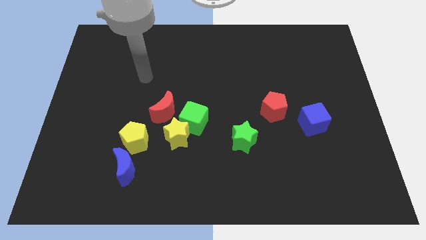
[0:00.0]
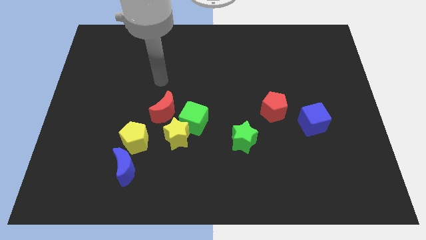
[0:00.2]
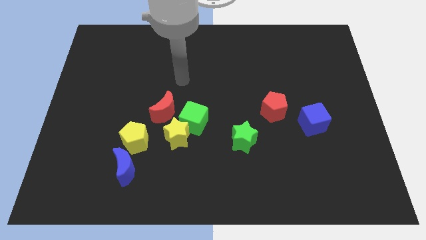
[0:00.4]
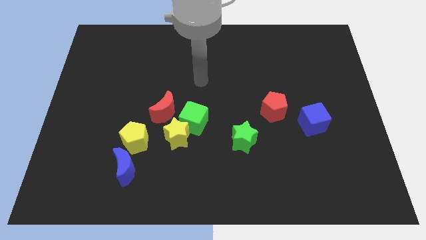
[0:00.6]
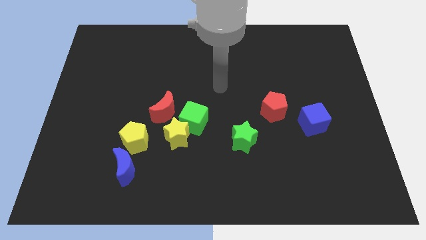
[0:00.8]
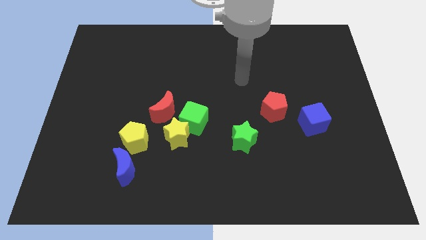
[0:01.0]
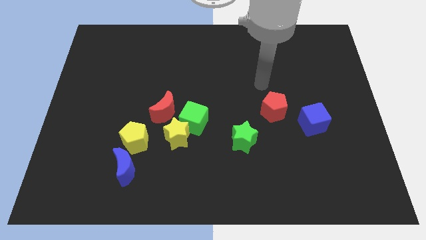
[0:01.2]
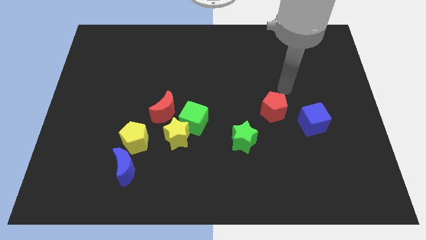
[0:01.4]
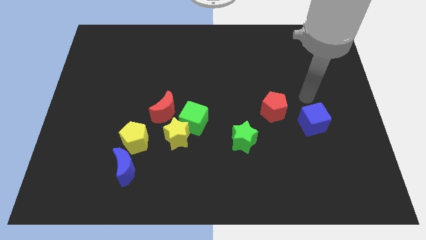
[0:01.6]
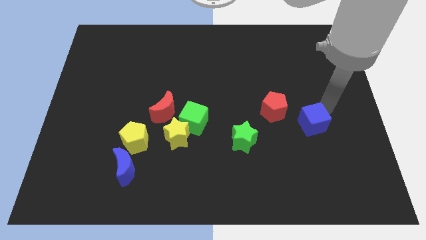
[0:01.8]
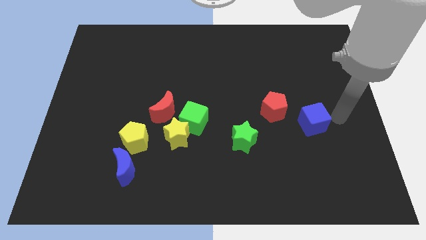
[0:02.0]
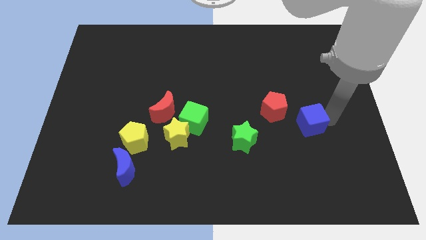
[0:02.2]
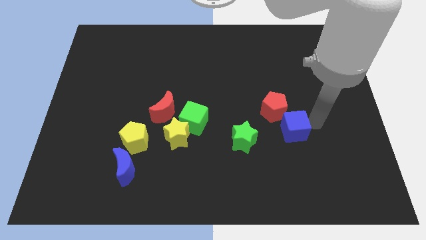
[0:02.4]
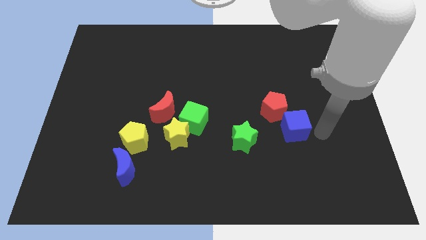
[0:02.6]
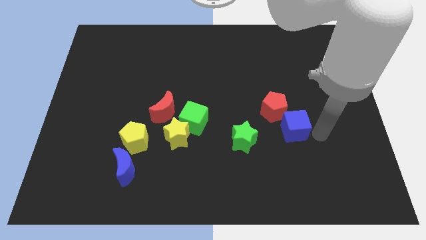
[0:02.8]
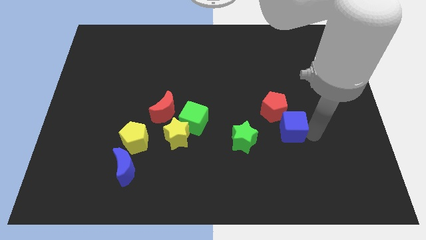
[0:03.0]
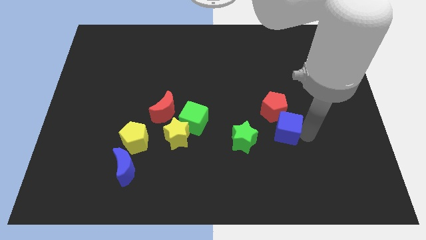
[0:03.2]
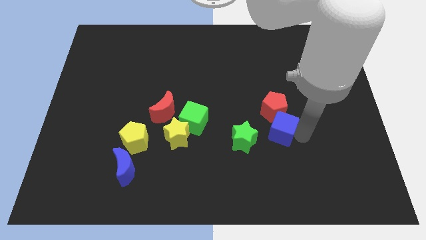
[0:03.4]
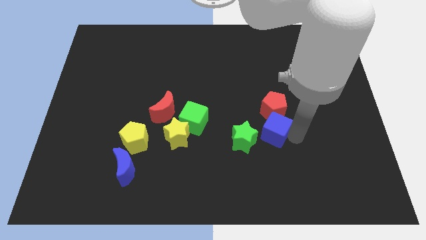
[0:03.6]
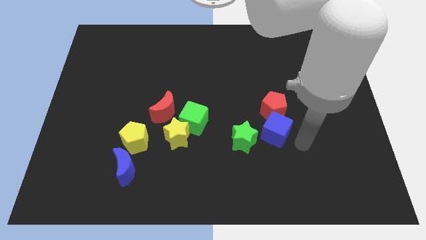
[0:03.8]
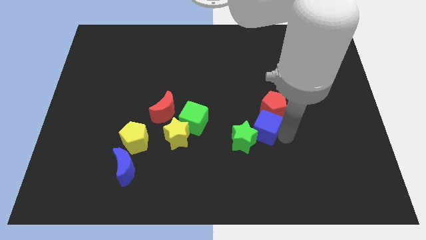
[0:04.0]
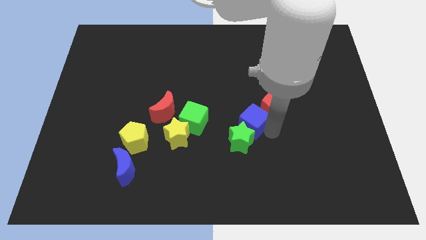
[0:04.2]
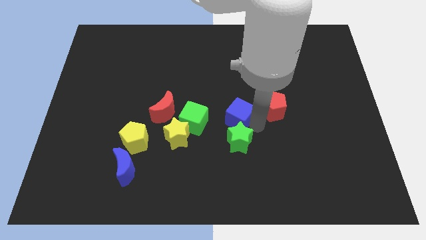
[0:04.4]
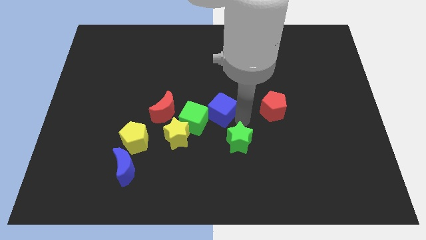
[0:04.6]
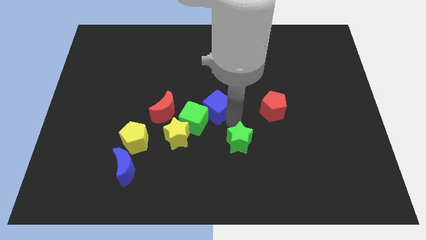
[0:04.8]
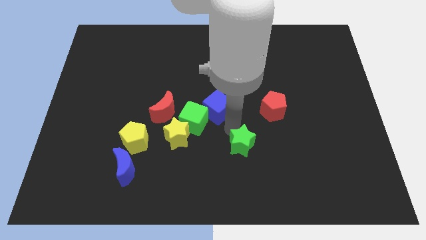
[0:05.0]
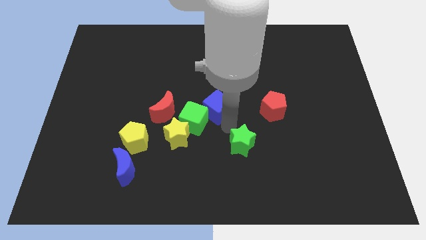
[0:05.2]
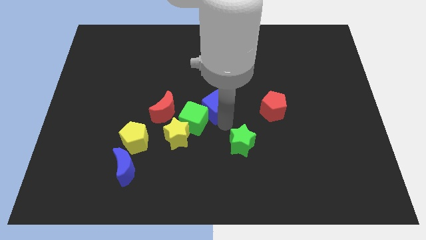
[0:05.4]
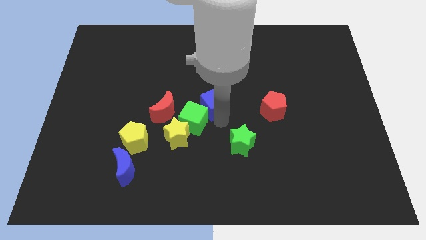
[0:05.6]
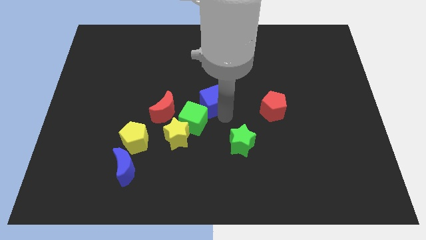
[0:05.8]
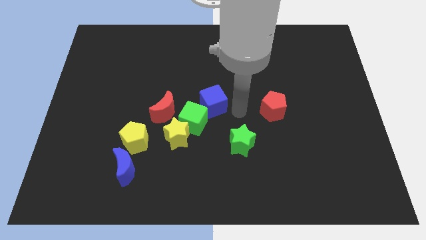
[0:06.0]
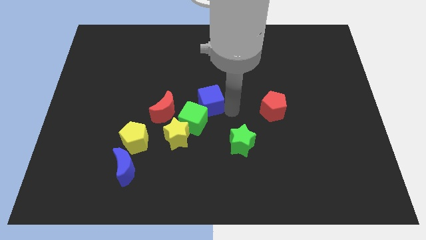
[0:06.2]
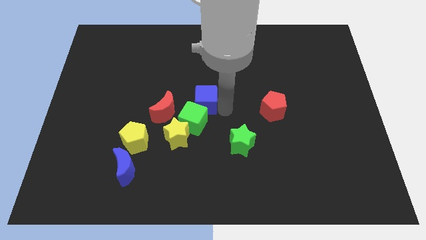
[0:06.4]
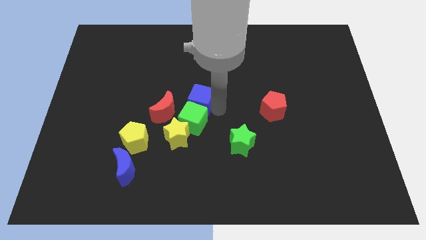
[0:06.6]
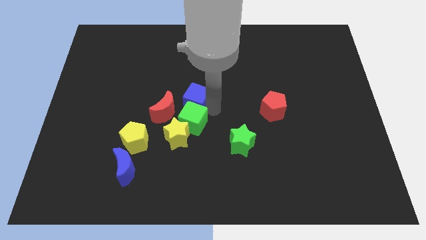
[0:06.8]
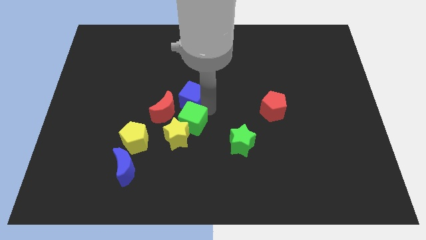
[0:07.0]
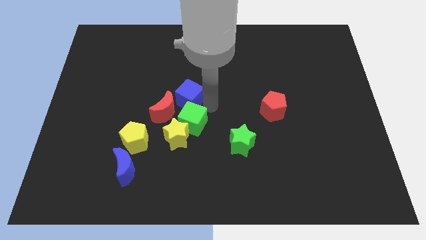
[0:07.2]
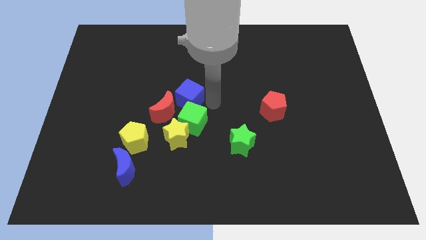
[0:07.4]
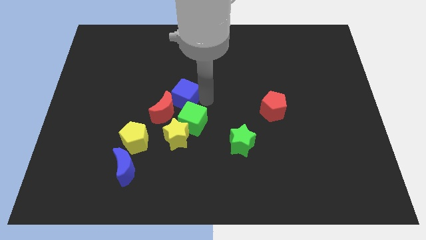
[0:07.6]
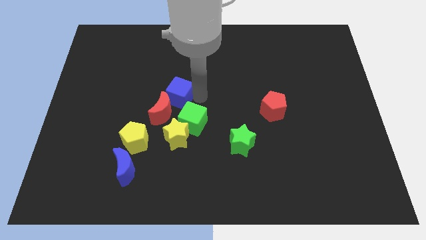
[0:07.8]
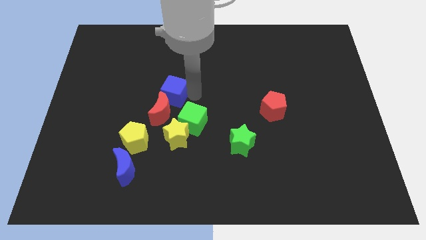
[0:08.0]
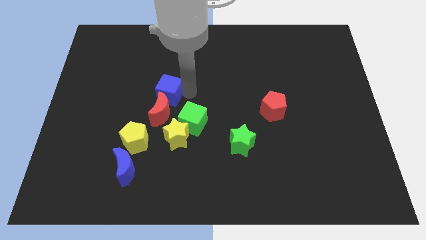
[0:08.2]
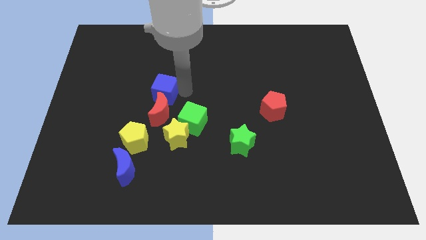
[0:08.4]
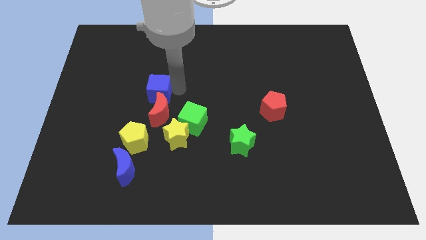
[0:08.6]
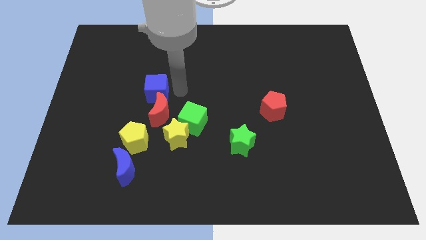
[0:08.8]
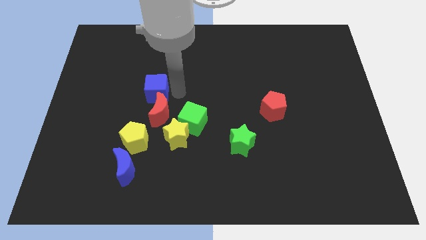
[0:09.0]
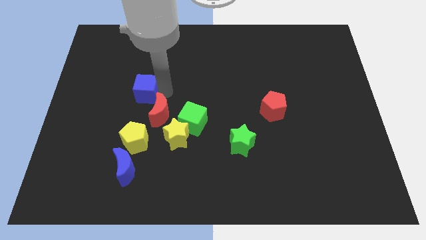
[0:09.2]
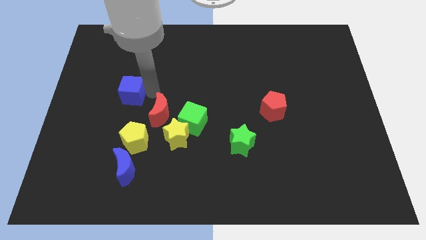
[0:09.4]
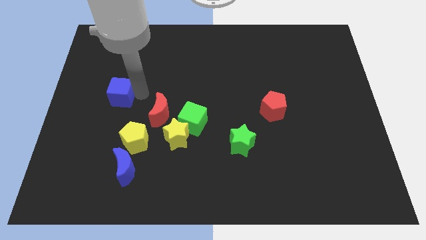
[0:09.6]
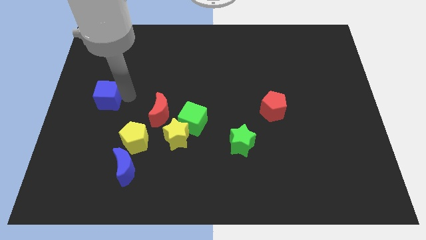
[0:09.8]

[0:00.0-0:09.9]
put the blue cube to the left side

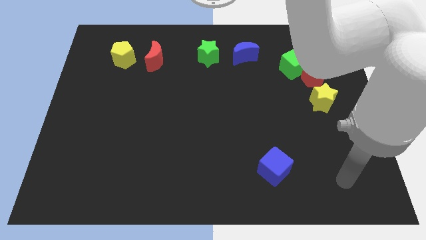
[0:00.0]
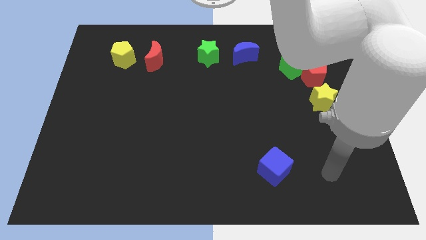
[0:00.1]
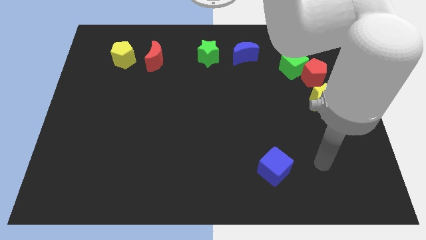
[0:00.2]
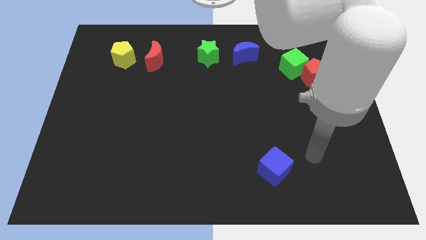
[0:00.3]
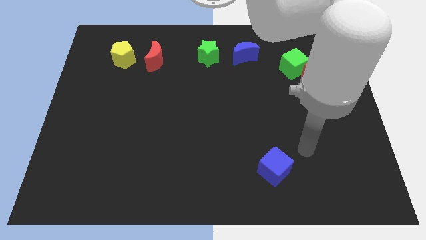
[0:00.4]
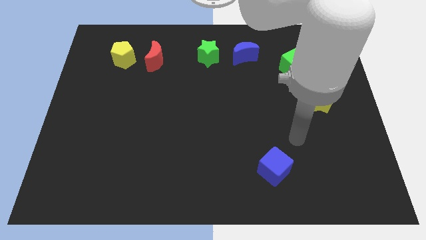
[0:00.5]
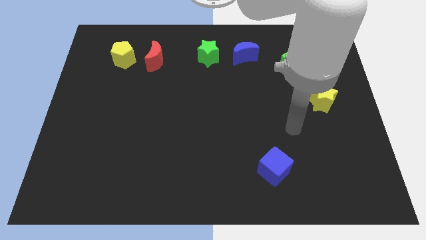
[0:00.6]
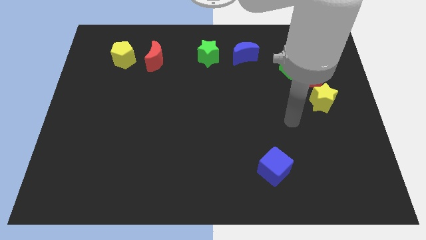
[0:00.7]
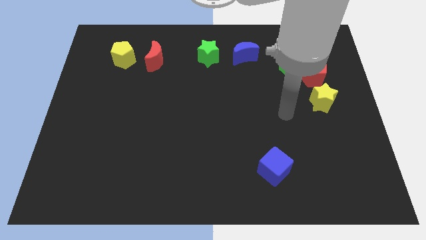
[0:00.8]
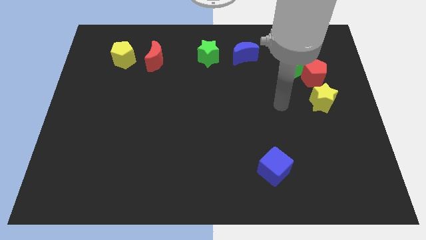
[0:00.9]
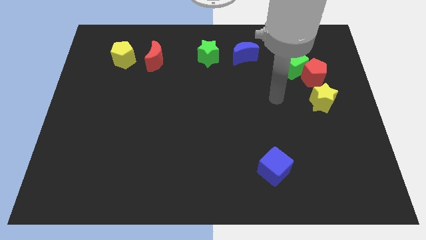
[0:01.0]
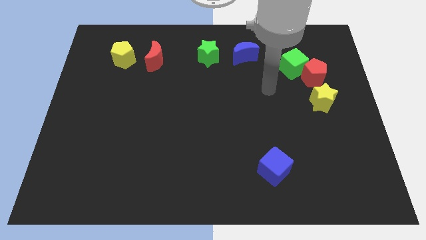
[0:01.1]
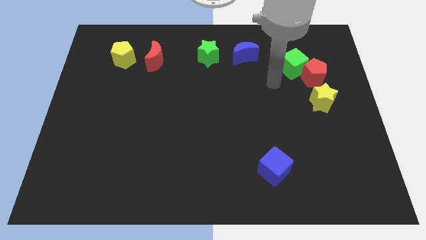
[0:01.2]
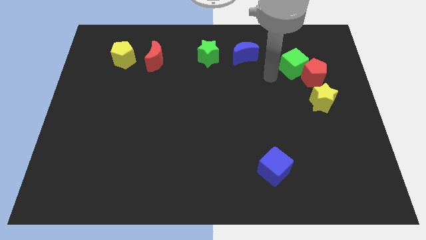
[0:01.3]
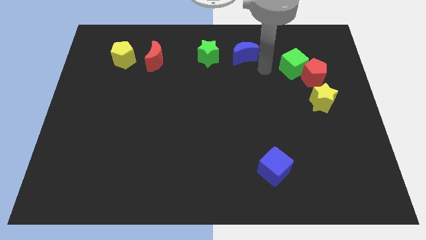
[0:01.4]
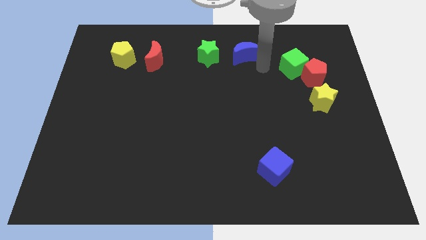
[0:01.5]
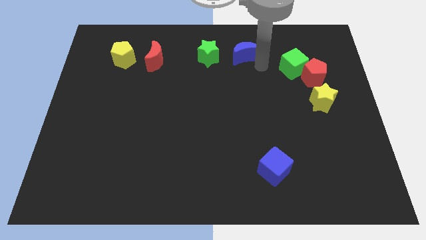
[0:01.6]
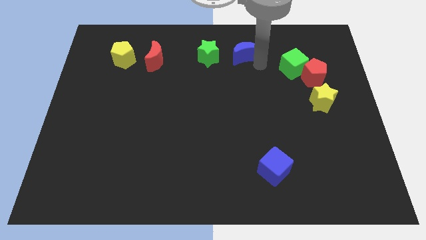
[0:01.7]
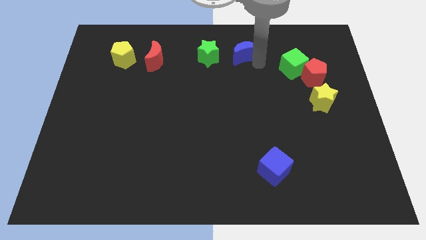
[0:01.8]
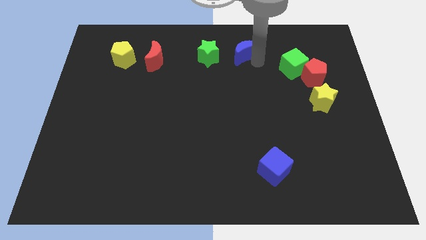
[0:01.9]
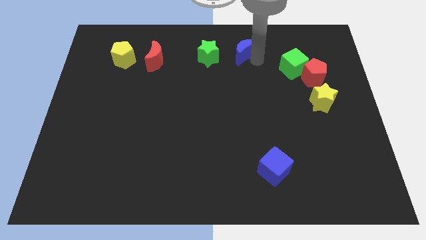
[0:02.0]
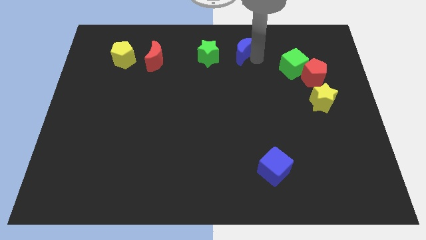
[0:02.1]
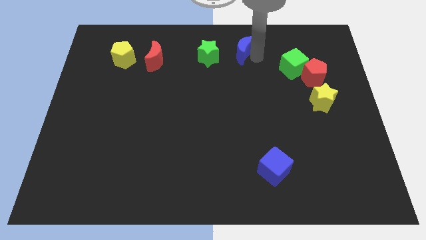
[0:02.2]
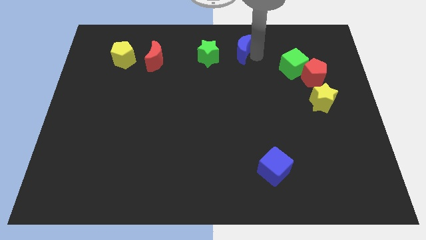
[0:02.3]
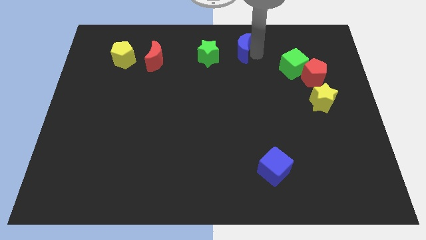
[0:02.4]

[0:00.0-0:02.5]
put the blue moon to the top side
